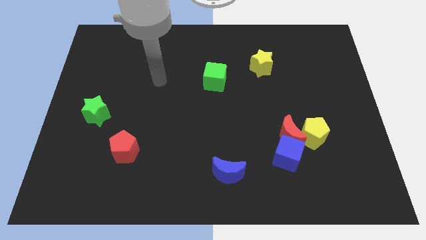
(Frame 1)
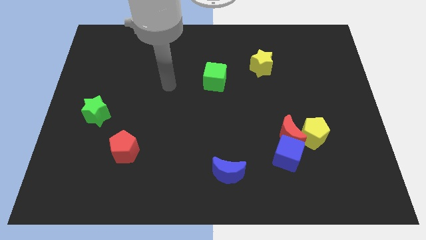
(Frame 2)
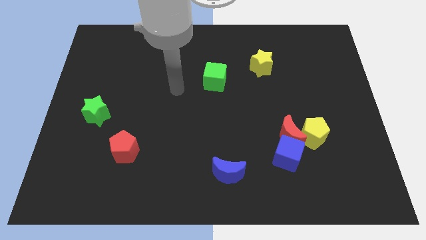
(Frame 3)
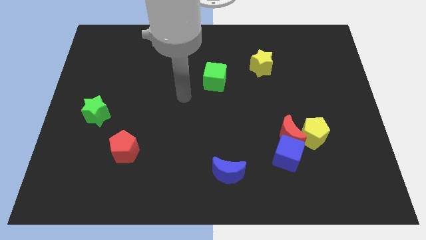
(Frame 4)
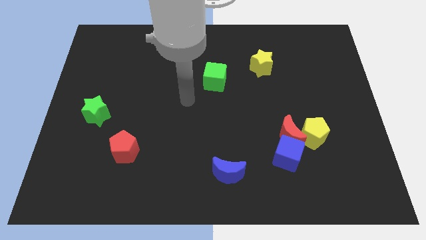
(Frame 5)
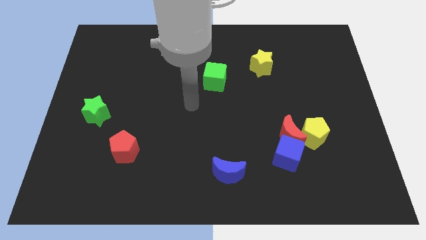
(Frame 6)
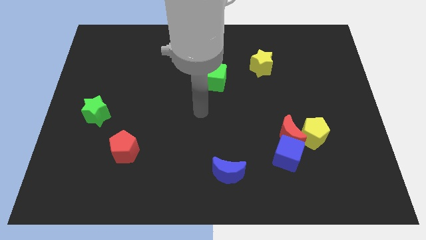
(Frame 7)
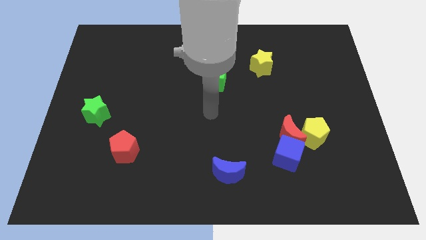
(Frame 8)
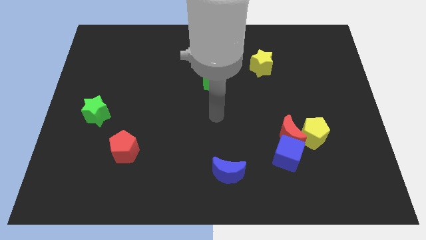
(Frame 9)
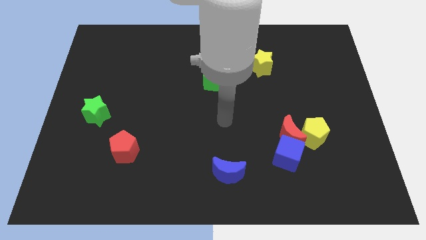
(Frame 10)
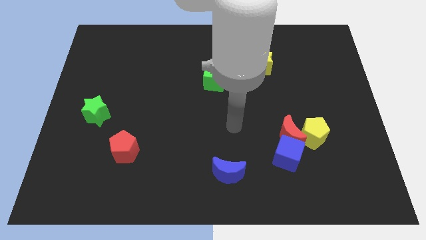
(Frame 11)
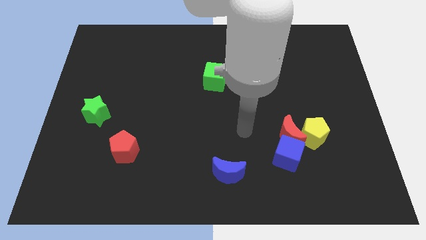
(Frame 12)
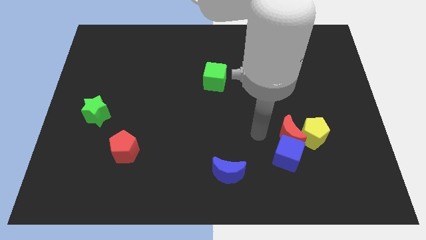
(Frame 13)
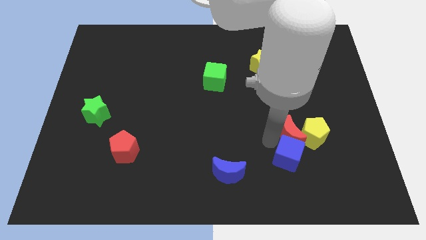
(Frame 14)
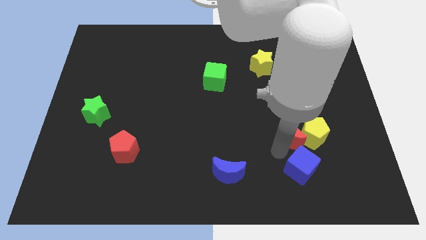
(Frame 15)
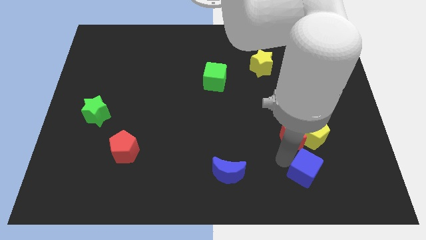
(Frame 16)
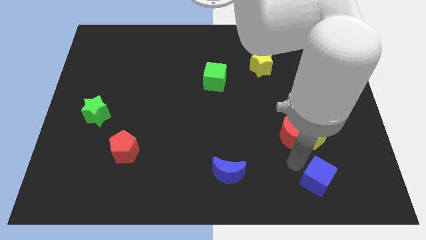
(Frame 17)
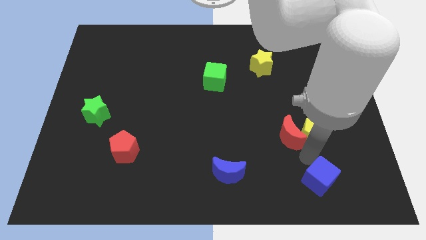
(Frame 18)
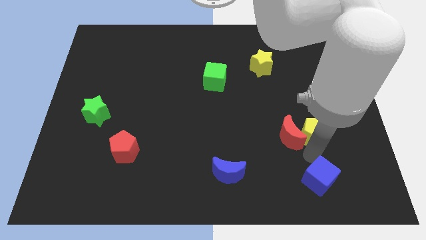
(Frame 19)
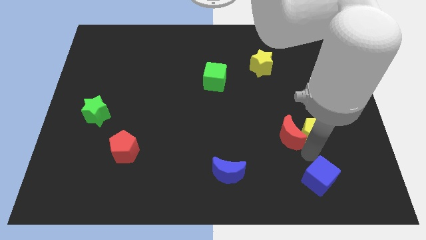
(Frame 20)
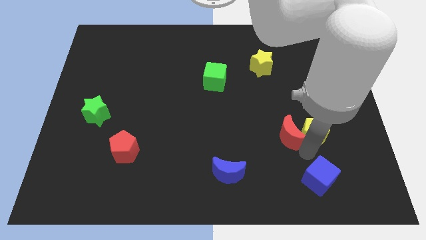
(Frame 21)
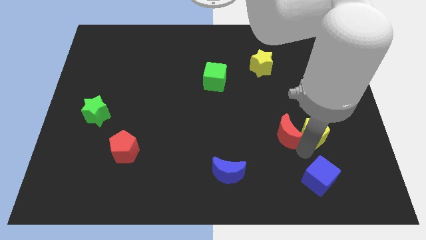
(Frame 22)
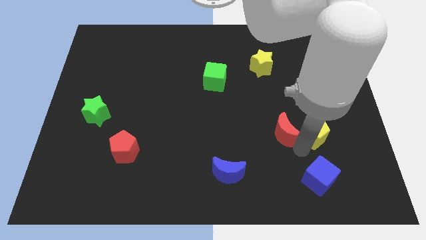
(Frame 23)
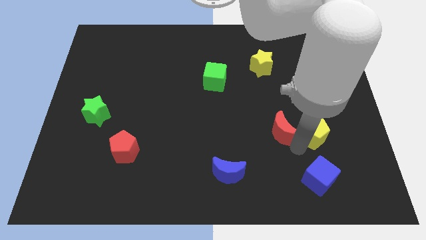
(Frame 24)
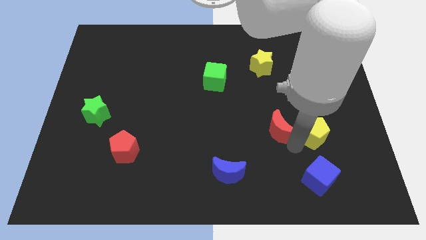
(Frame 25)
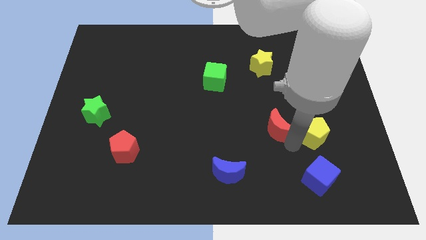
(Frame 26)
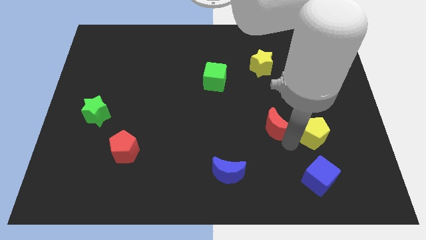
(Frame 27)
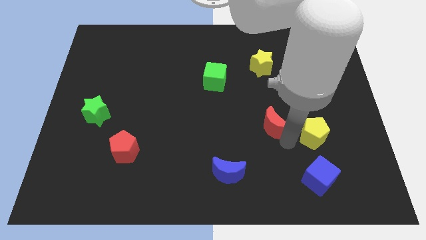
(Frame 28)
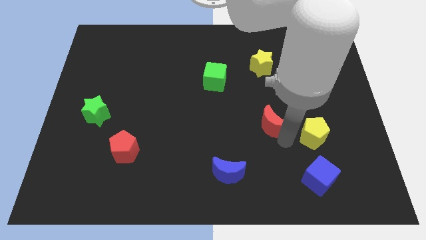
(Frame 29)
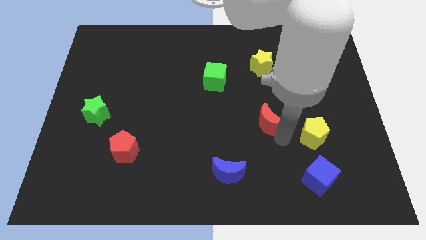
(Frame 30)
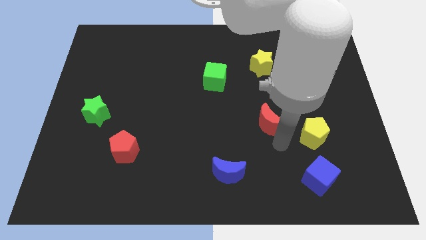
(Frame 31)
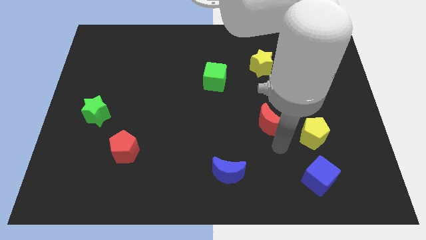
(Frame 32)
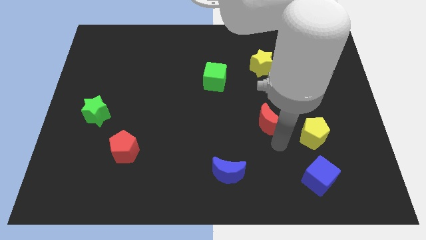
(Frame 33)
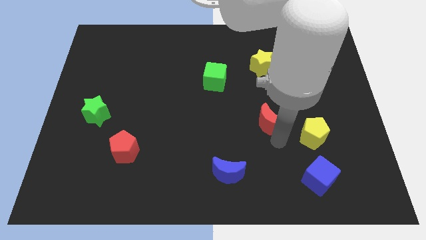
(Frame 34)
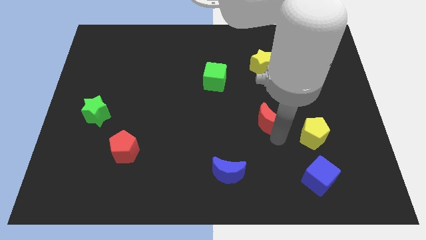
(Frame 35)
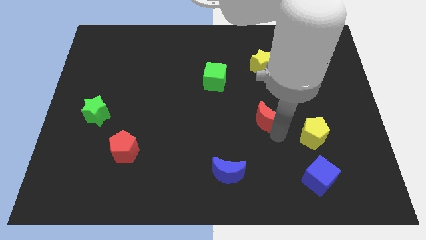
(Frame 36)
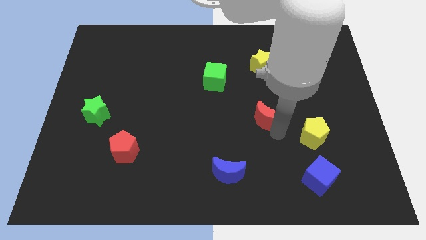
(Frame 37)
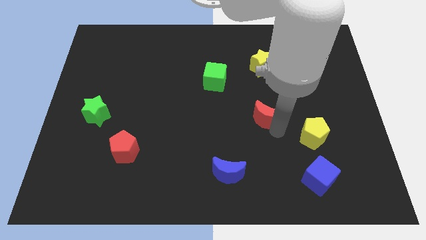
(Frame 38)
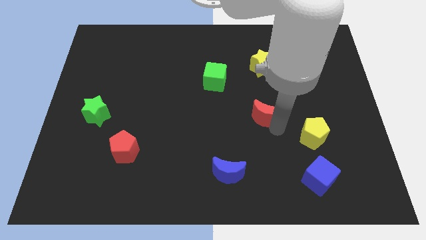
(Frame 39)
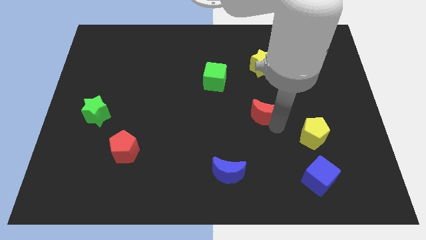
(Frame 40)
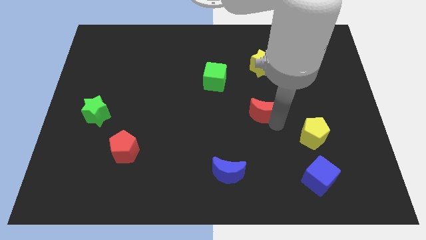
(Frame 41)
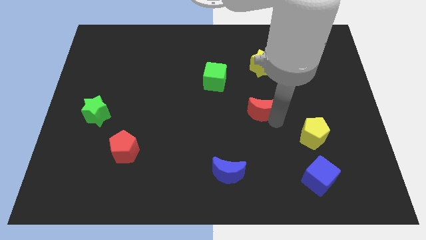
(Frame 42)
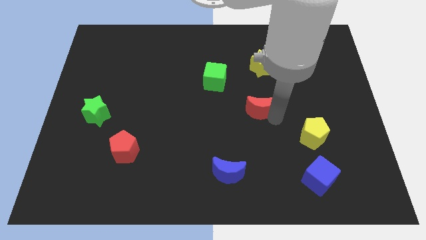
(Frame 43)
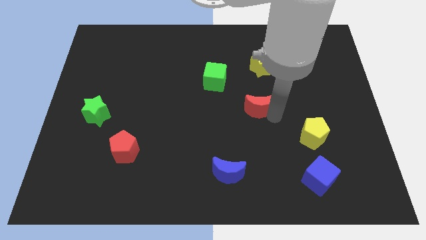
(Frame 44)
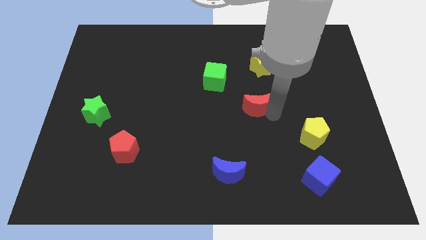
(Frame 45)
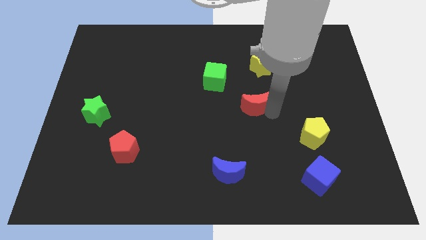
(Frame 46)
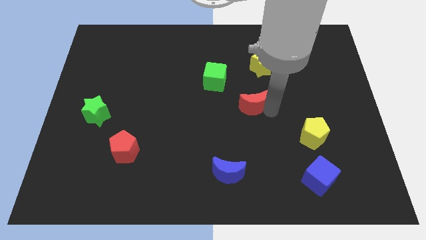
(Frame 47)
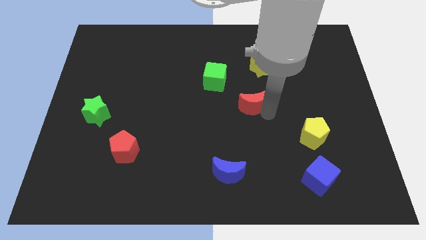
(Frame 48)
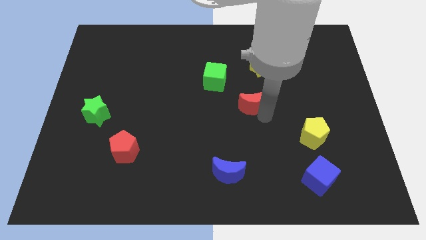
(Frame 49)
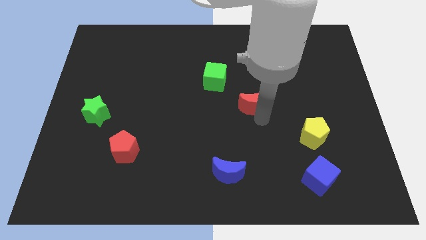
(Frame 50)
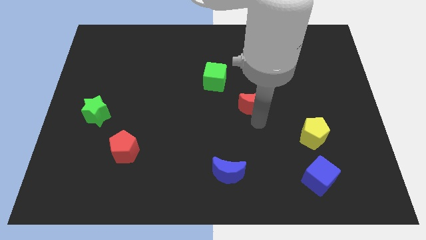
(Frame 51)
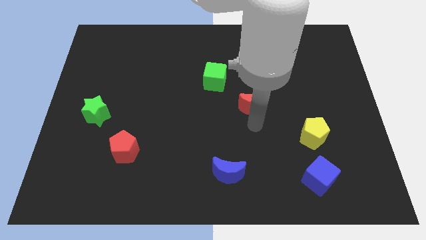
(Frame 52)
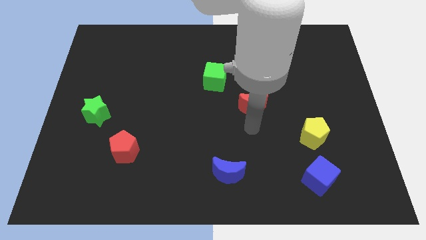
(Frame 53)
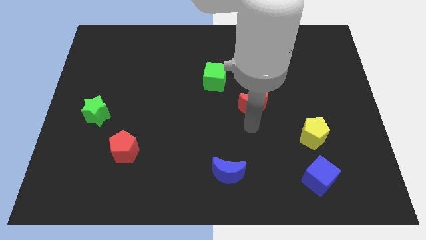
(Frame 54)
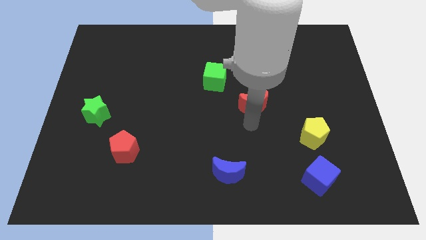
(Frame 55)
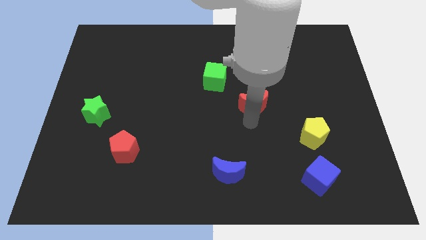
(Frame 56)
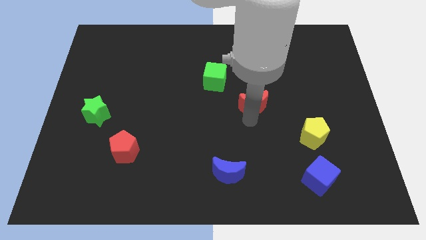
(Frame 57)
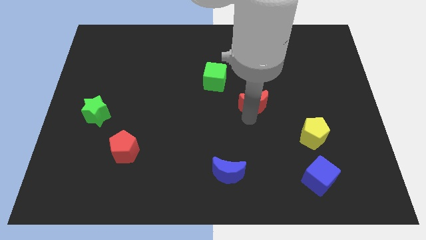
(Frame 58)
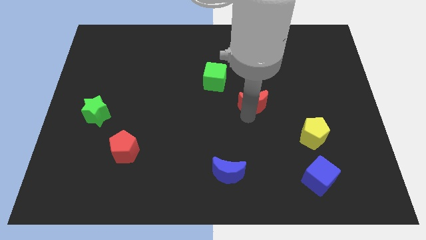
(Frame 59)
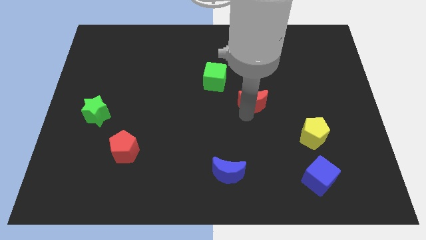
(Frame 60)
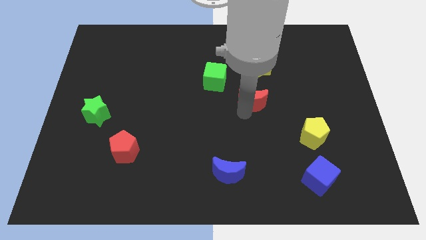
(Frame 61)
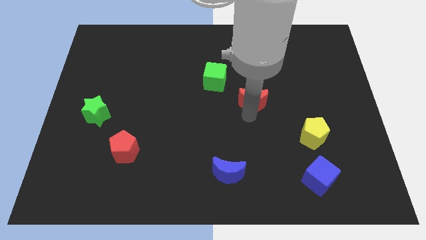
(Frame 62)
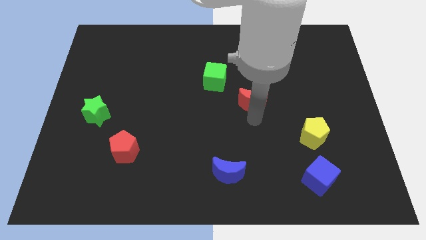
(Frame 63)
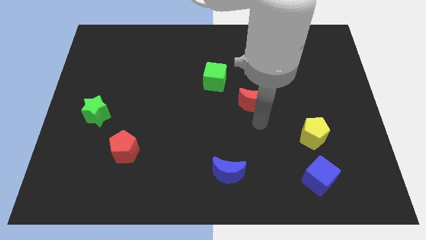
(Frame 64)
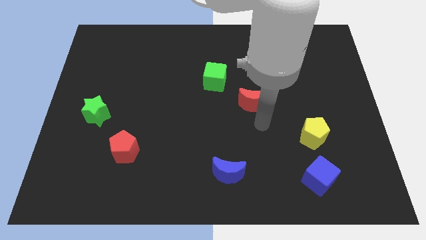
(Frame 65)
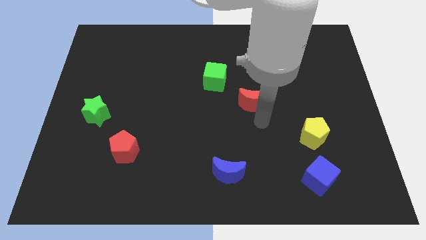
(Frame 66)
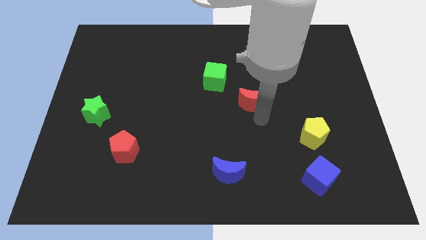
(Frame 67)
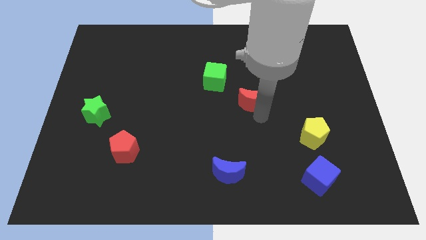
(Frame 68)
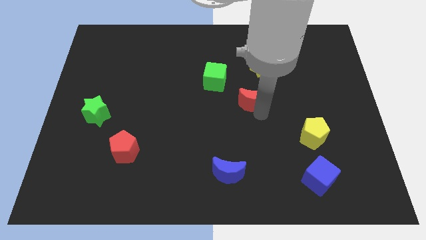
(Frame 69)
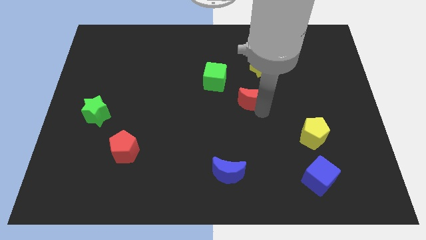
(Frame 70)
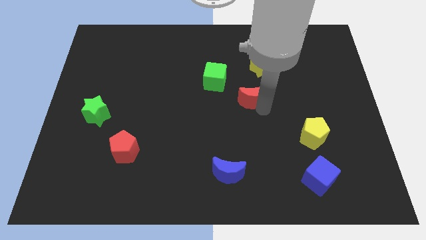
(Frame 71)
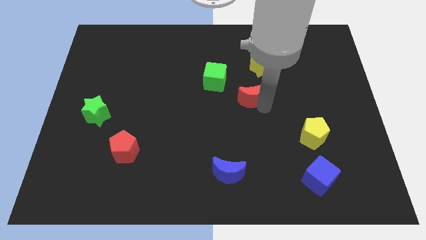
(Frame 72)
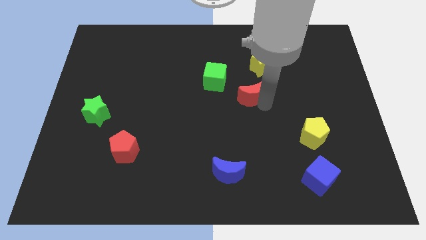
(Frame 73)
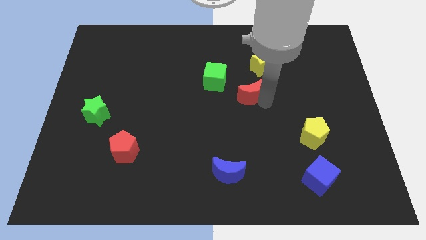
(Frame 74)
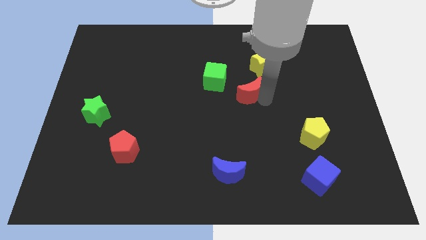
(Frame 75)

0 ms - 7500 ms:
put the red moon to the bottom left of the yellow star
